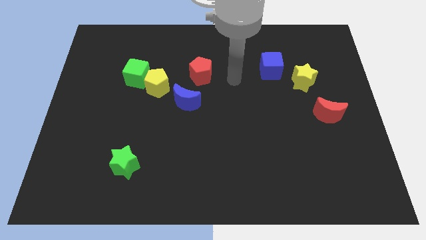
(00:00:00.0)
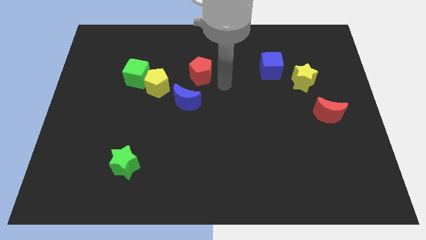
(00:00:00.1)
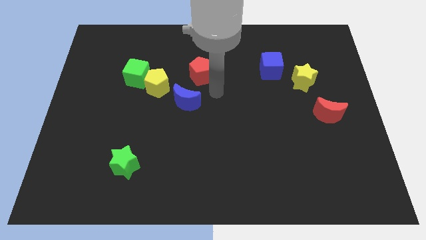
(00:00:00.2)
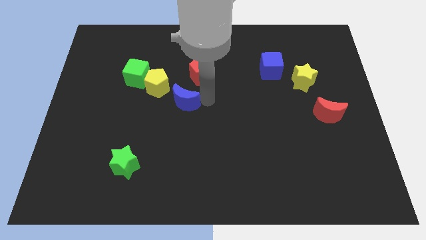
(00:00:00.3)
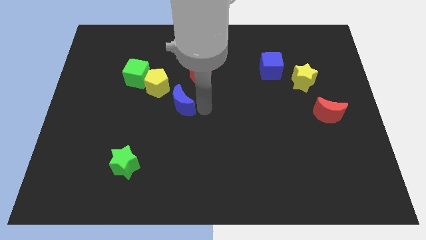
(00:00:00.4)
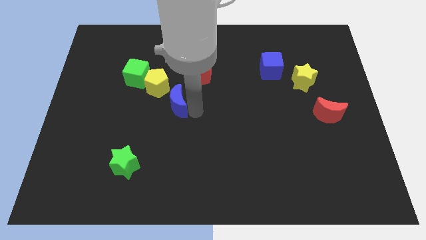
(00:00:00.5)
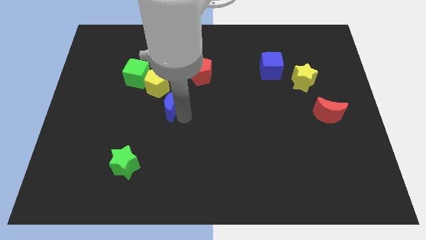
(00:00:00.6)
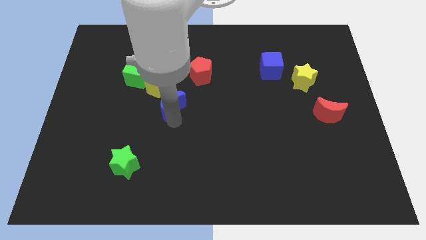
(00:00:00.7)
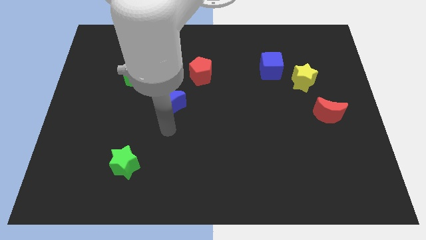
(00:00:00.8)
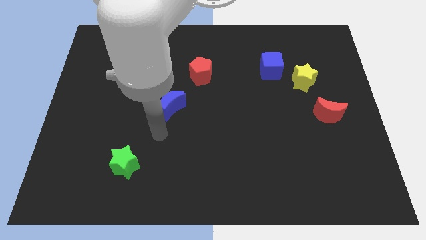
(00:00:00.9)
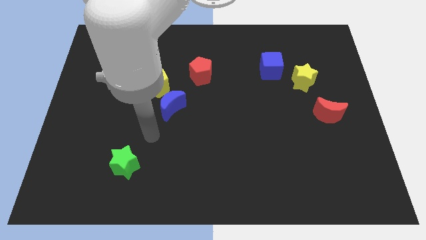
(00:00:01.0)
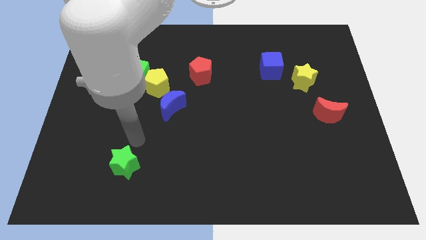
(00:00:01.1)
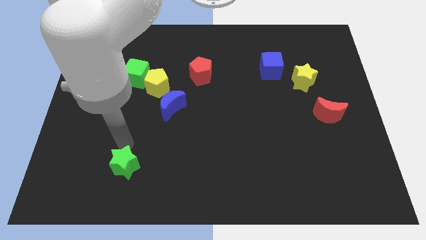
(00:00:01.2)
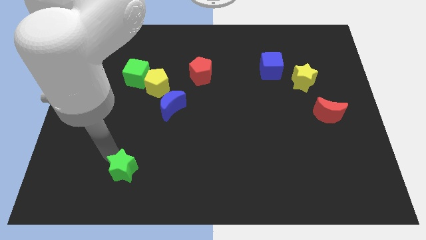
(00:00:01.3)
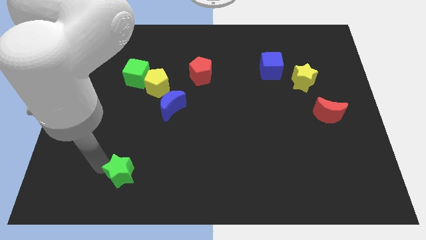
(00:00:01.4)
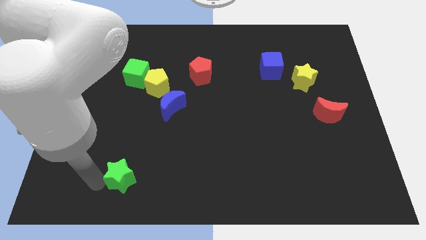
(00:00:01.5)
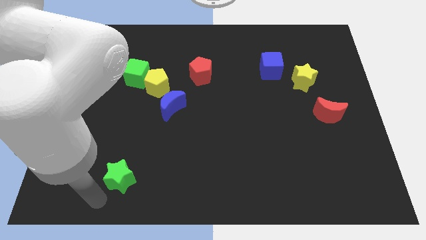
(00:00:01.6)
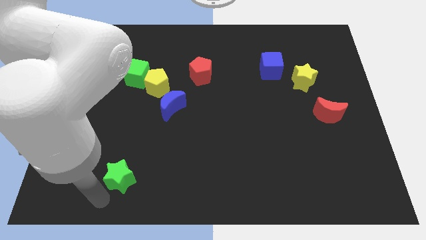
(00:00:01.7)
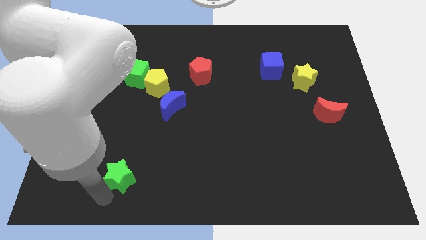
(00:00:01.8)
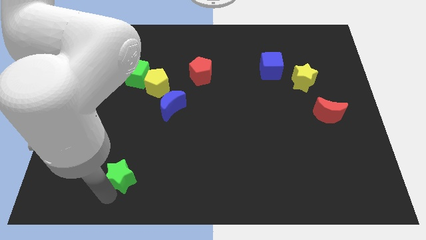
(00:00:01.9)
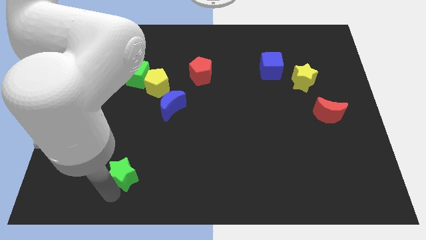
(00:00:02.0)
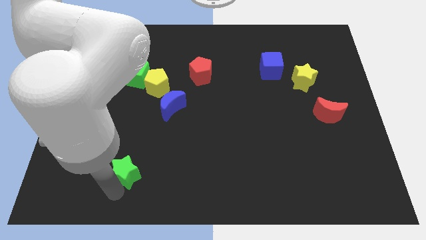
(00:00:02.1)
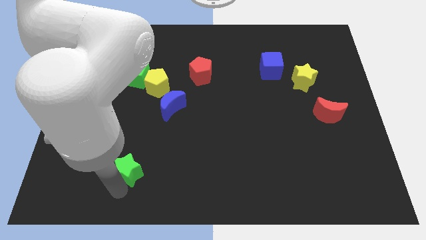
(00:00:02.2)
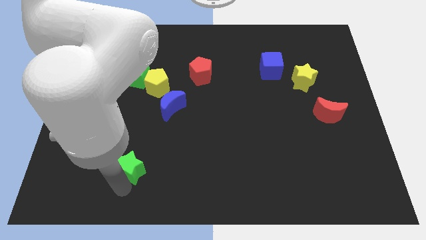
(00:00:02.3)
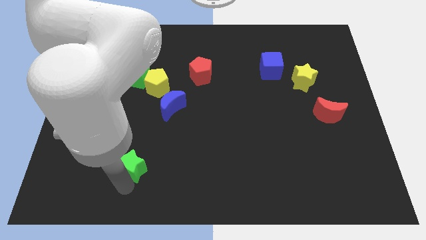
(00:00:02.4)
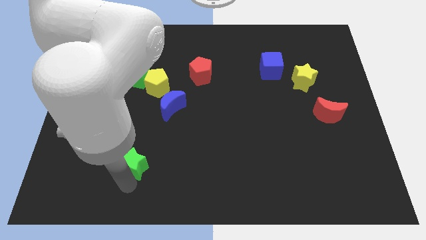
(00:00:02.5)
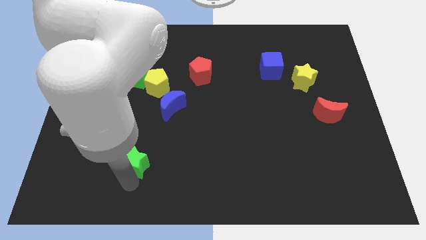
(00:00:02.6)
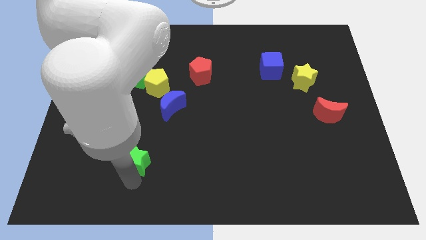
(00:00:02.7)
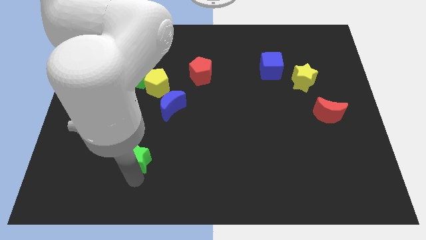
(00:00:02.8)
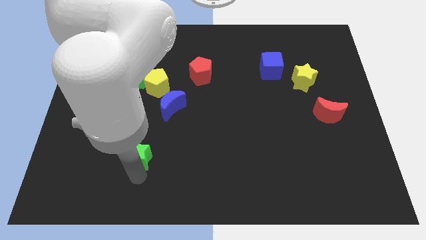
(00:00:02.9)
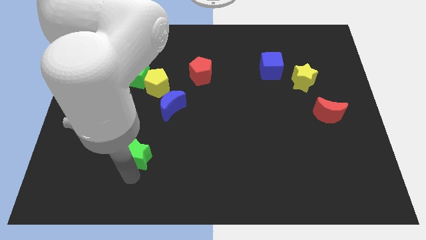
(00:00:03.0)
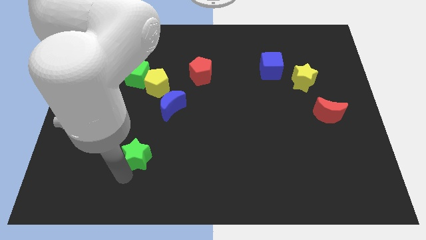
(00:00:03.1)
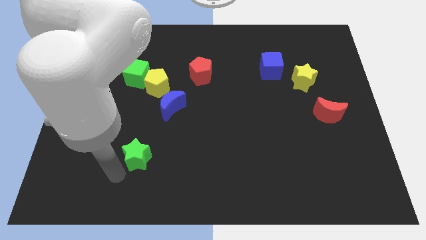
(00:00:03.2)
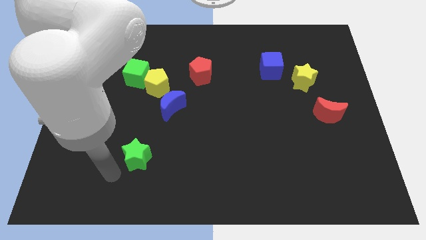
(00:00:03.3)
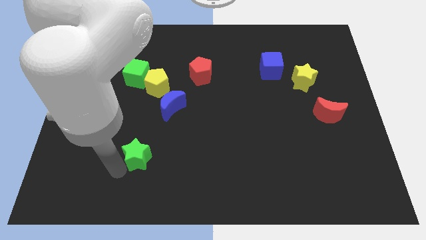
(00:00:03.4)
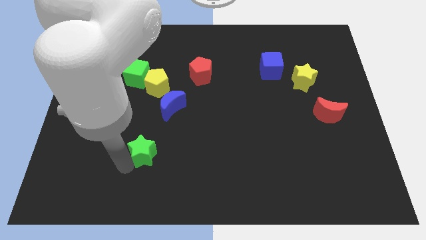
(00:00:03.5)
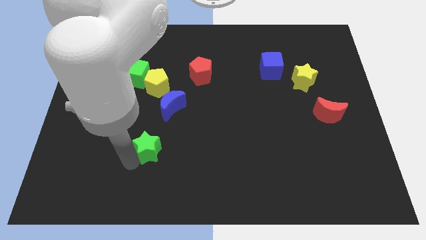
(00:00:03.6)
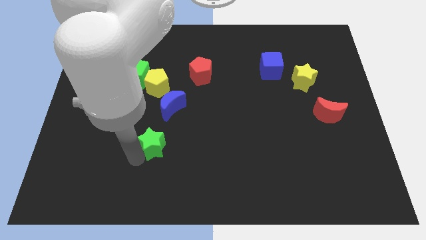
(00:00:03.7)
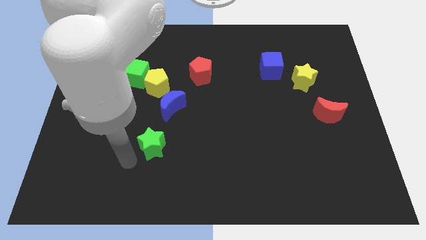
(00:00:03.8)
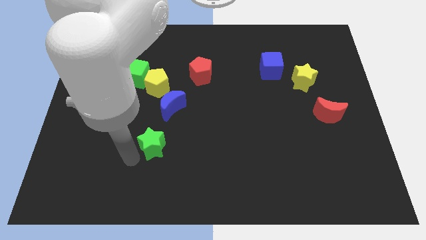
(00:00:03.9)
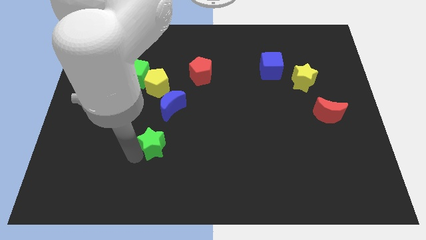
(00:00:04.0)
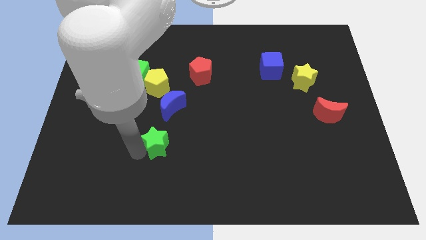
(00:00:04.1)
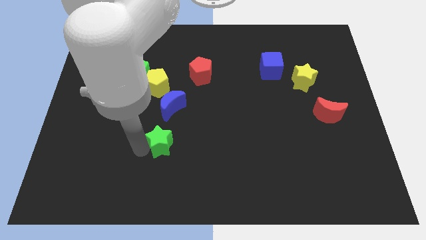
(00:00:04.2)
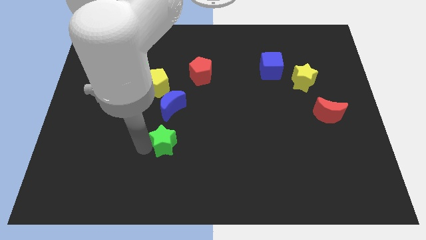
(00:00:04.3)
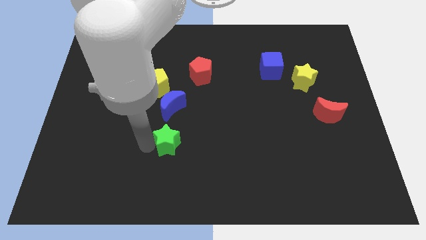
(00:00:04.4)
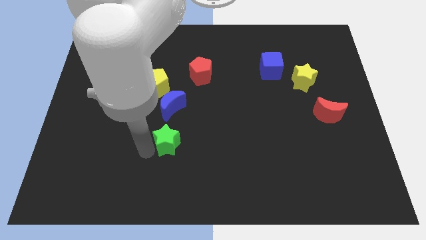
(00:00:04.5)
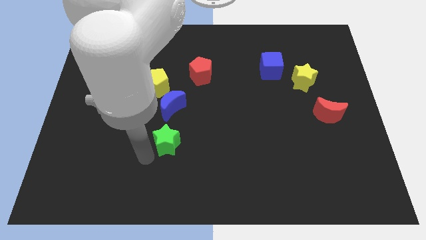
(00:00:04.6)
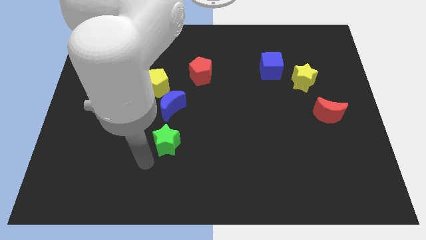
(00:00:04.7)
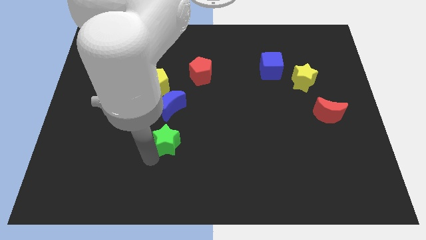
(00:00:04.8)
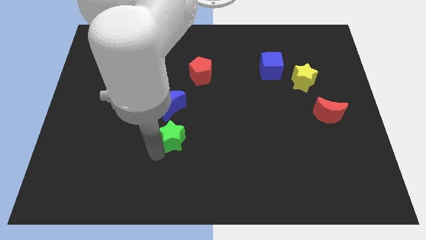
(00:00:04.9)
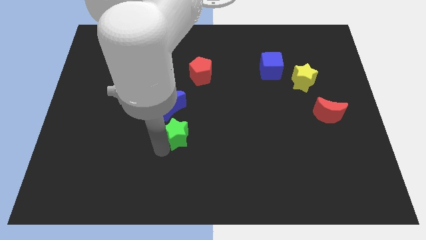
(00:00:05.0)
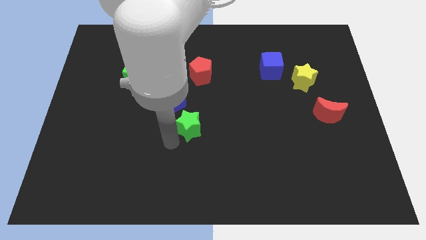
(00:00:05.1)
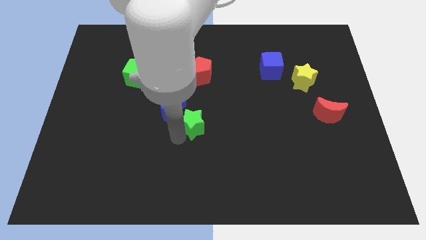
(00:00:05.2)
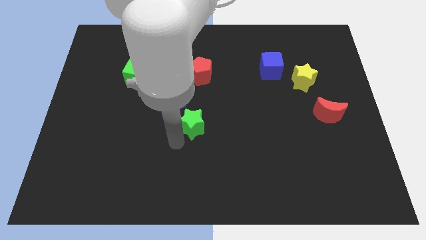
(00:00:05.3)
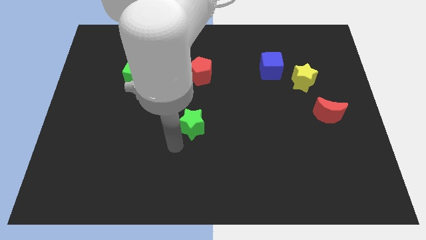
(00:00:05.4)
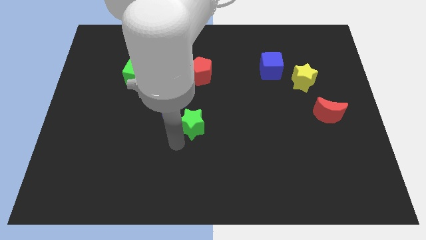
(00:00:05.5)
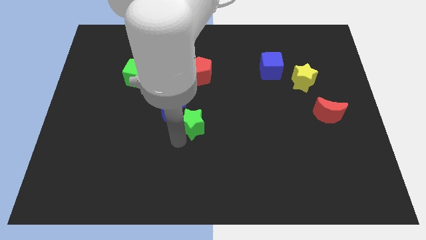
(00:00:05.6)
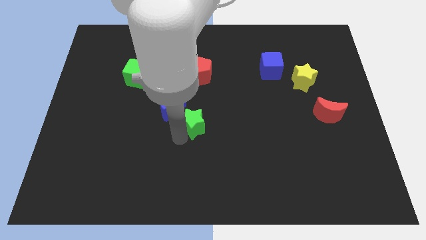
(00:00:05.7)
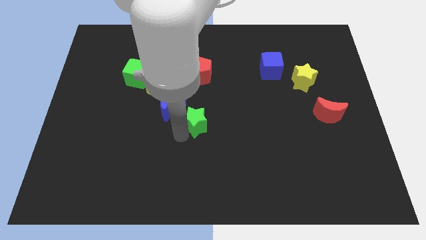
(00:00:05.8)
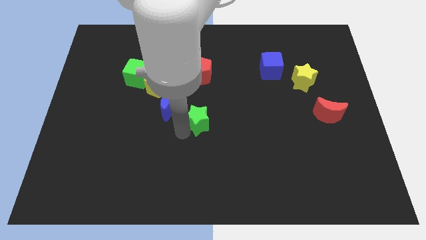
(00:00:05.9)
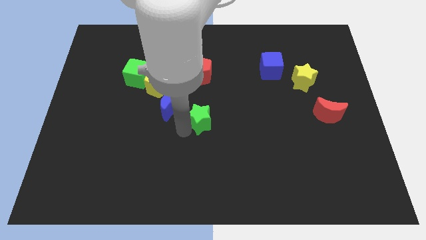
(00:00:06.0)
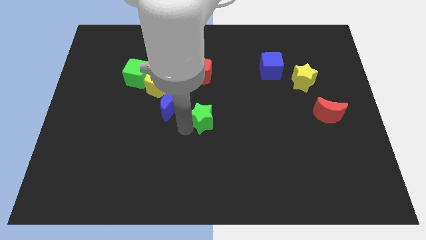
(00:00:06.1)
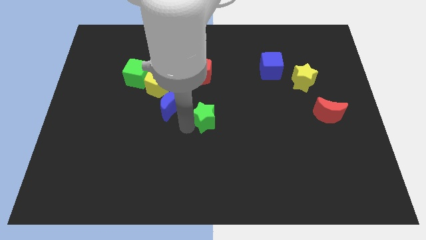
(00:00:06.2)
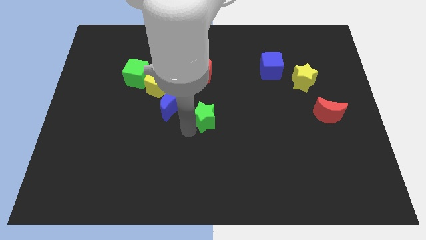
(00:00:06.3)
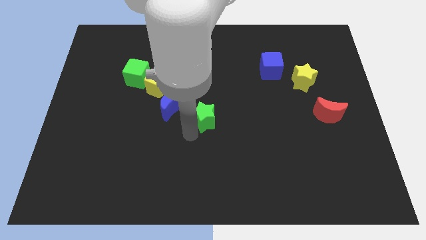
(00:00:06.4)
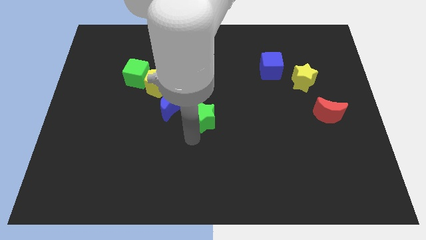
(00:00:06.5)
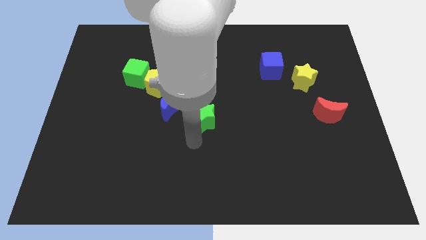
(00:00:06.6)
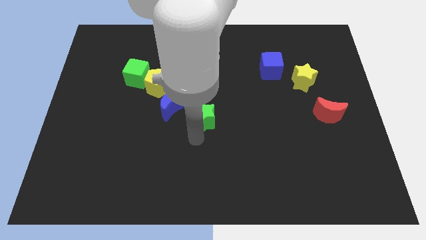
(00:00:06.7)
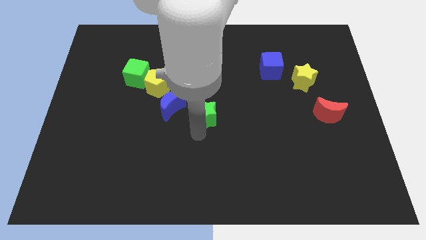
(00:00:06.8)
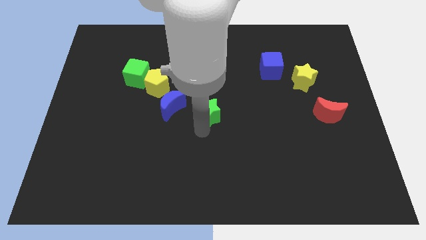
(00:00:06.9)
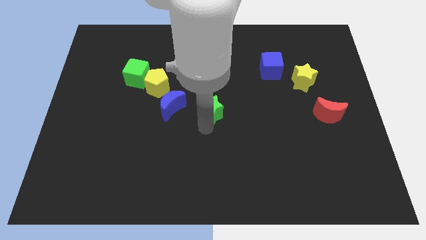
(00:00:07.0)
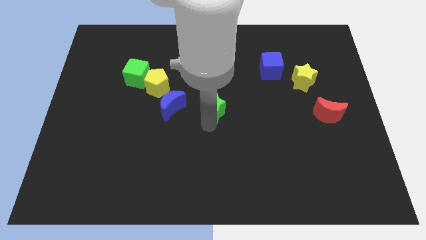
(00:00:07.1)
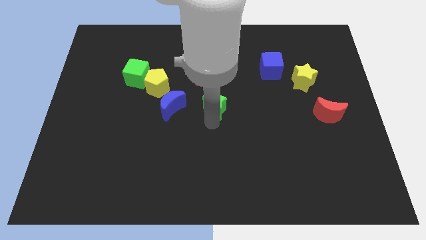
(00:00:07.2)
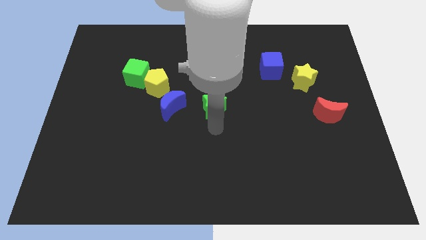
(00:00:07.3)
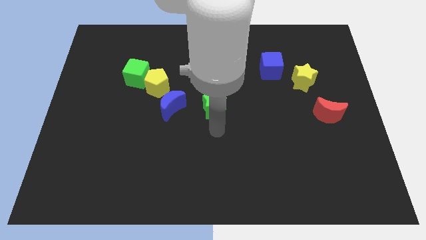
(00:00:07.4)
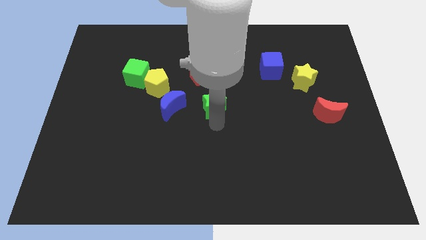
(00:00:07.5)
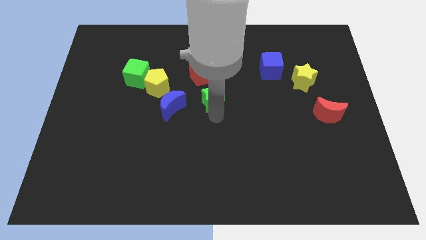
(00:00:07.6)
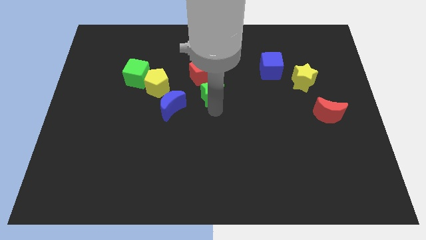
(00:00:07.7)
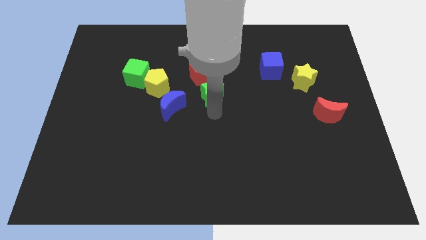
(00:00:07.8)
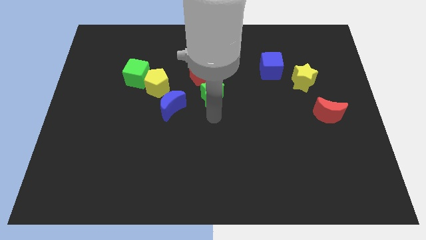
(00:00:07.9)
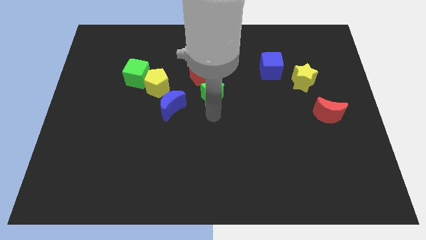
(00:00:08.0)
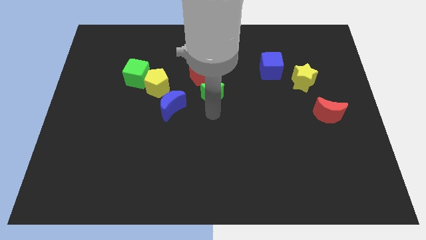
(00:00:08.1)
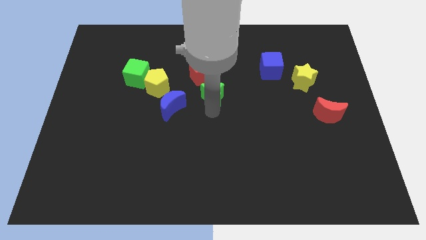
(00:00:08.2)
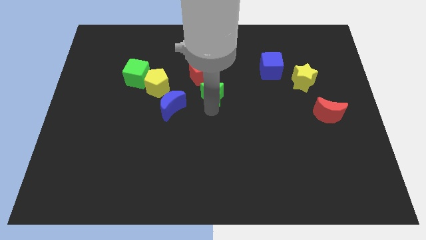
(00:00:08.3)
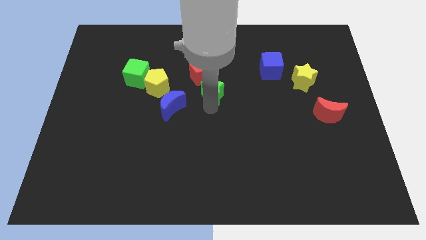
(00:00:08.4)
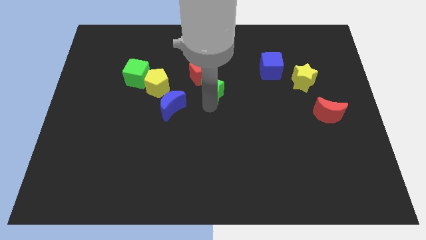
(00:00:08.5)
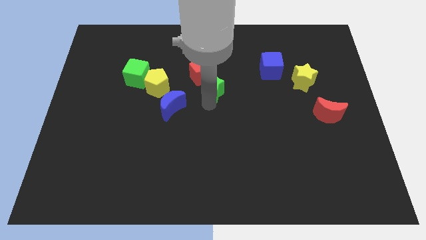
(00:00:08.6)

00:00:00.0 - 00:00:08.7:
push the green star to the red pentagon
